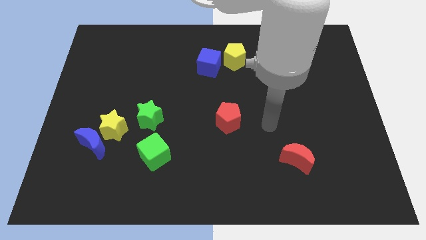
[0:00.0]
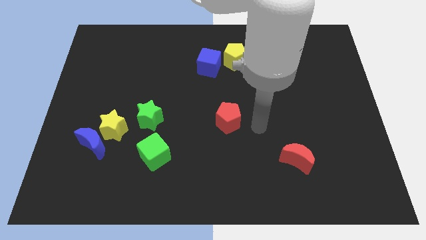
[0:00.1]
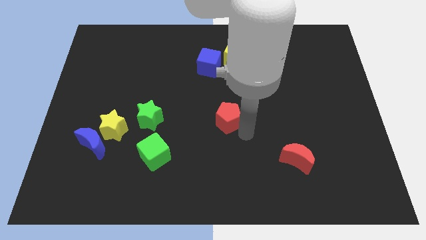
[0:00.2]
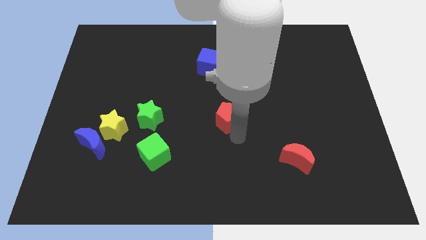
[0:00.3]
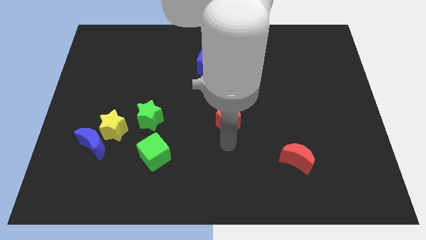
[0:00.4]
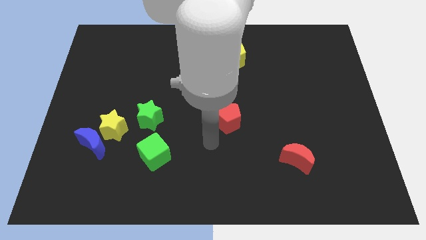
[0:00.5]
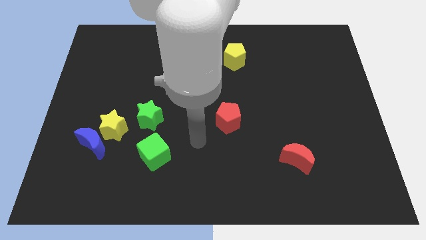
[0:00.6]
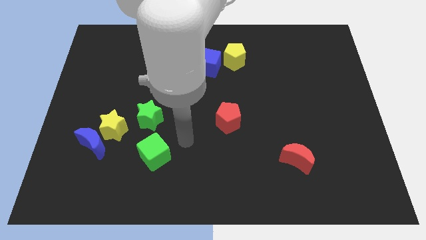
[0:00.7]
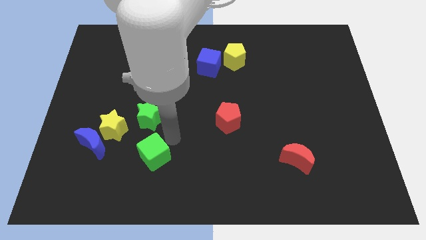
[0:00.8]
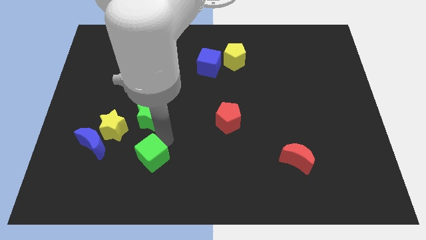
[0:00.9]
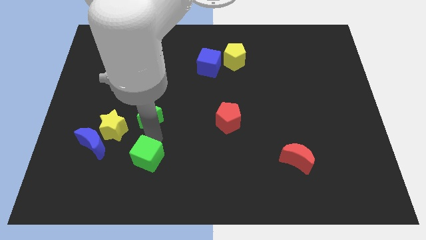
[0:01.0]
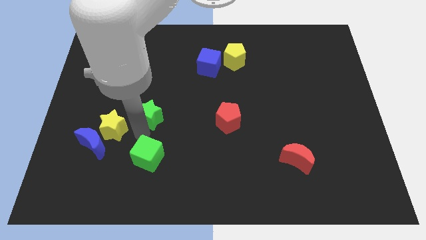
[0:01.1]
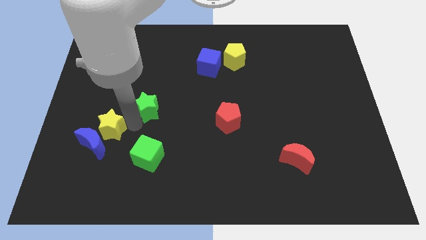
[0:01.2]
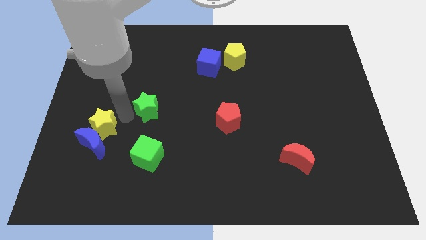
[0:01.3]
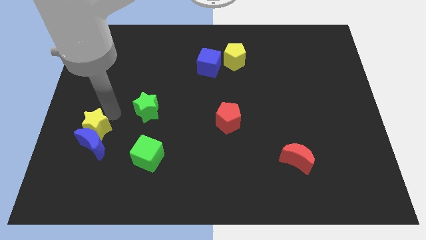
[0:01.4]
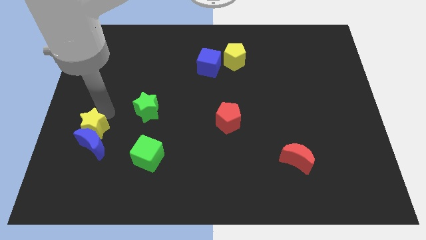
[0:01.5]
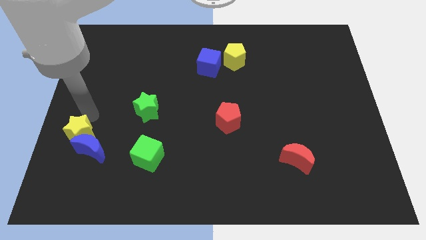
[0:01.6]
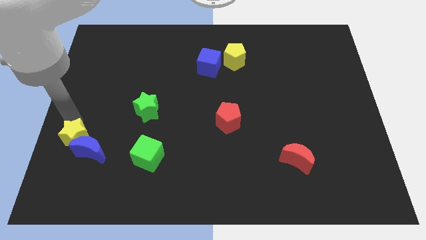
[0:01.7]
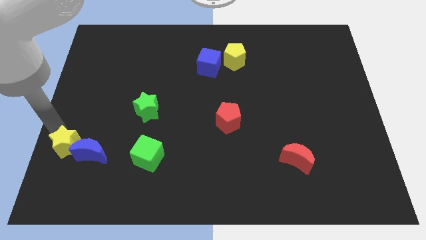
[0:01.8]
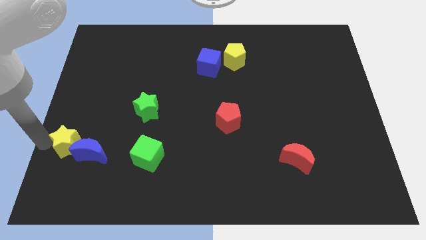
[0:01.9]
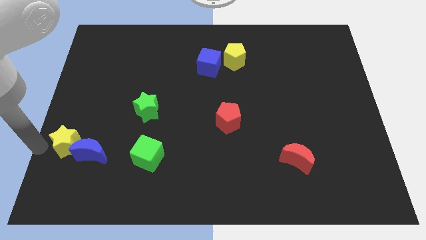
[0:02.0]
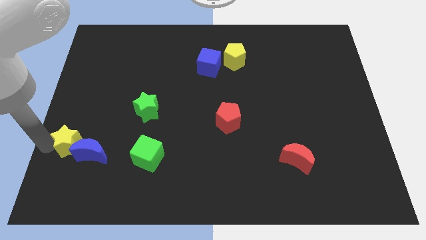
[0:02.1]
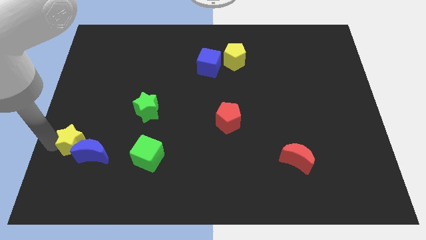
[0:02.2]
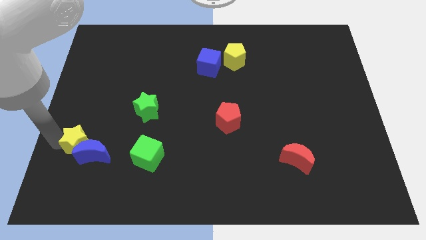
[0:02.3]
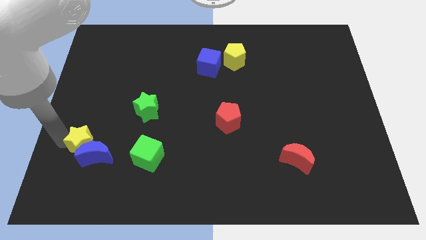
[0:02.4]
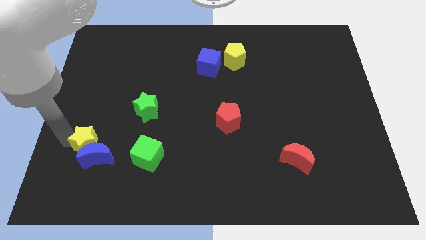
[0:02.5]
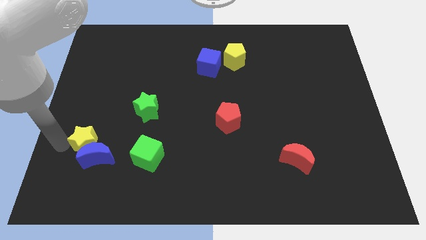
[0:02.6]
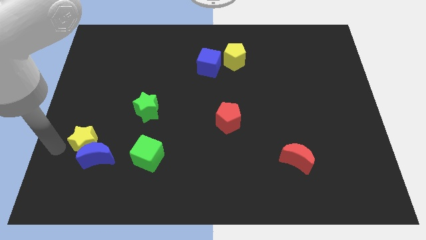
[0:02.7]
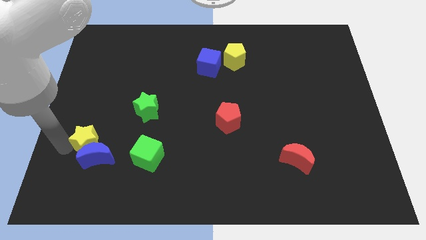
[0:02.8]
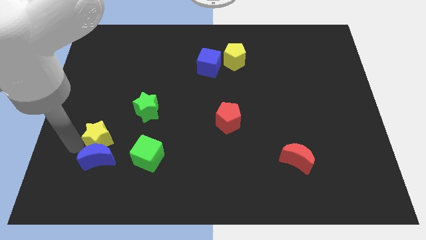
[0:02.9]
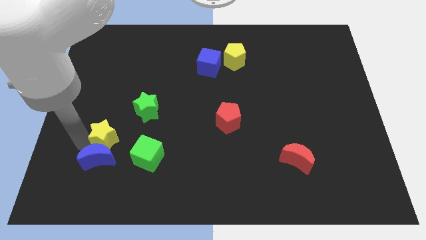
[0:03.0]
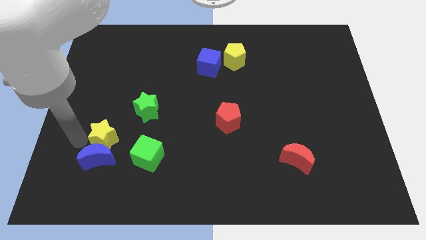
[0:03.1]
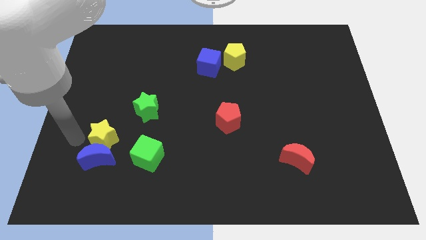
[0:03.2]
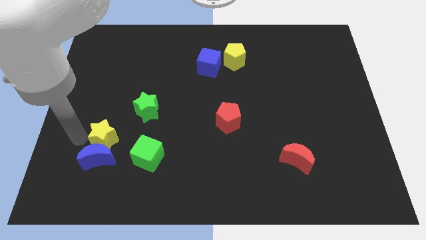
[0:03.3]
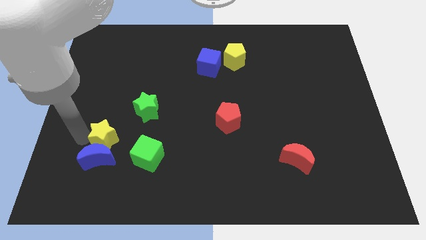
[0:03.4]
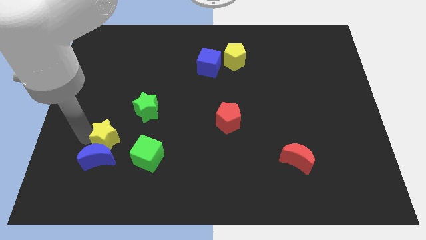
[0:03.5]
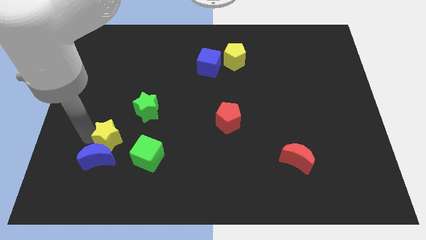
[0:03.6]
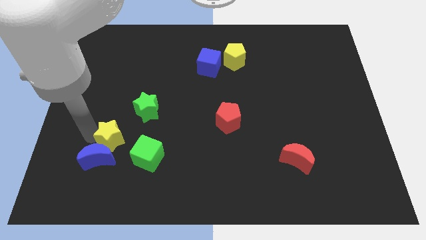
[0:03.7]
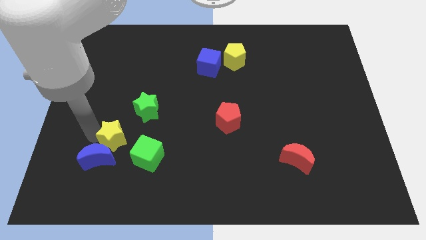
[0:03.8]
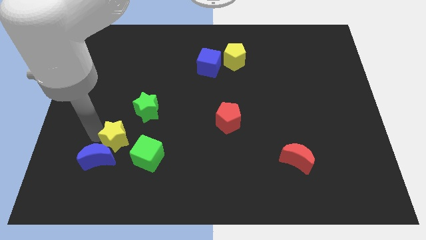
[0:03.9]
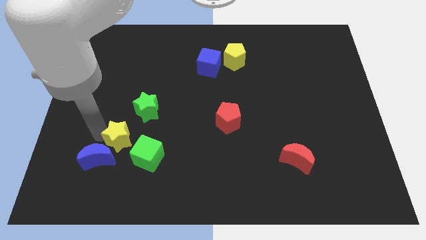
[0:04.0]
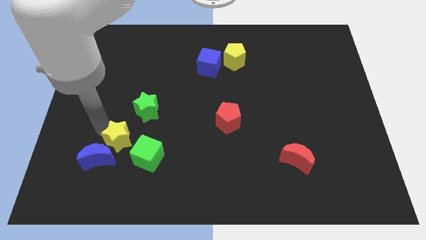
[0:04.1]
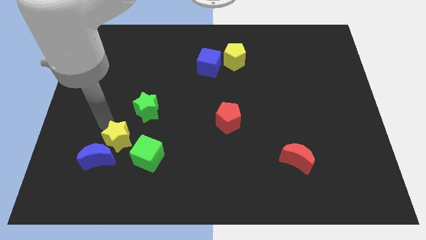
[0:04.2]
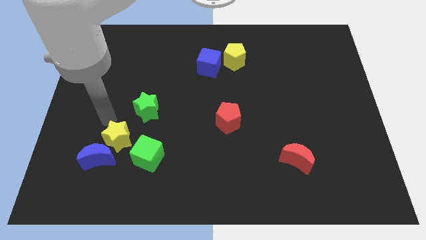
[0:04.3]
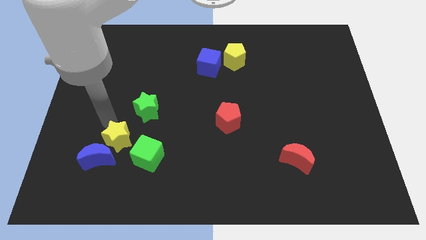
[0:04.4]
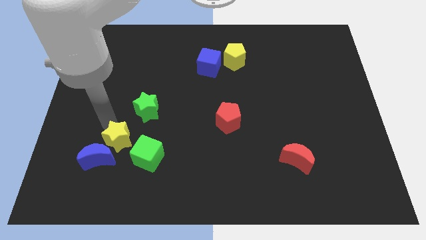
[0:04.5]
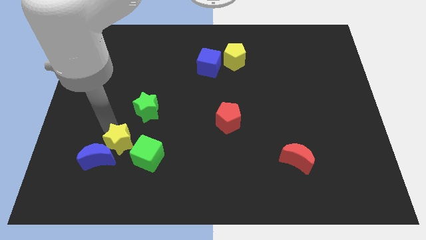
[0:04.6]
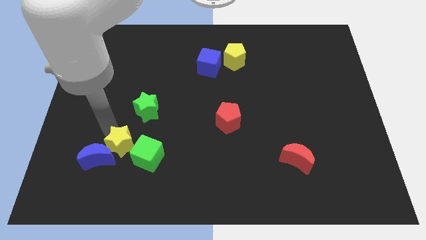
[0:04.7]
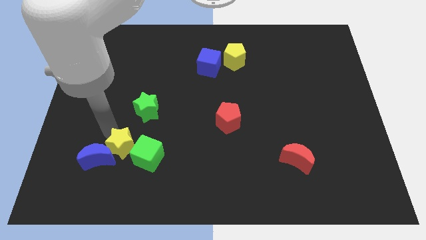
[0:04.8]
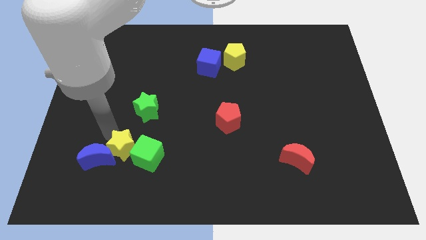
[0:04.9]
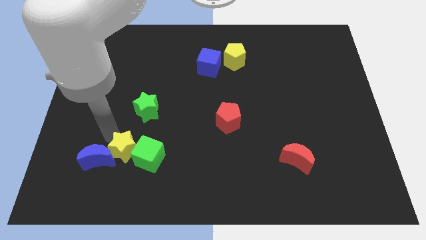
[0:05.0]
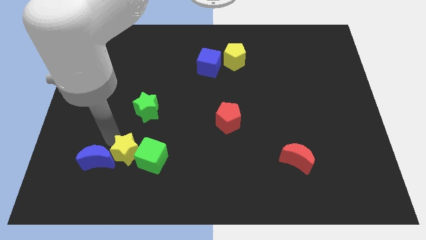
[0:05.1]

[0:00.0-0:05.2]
slide the yellow star a little bit down and then right

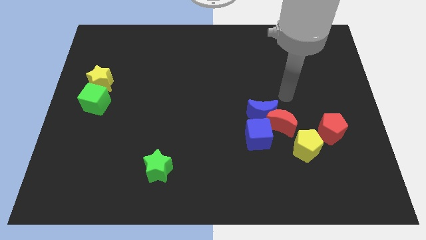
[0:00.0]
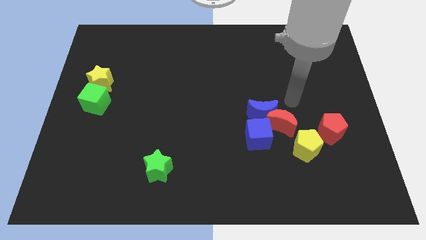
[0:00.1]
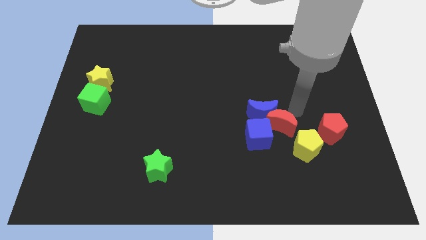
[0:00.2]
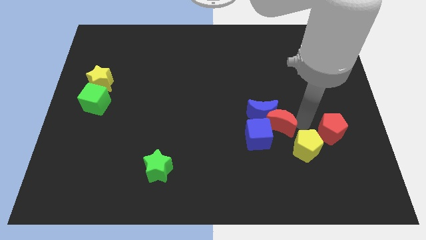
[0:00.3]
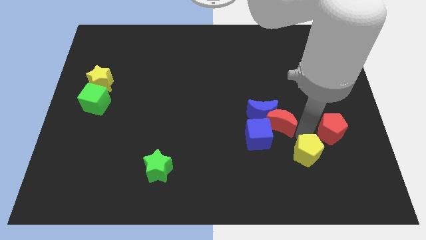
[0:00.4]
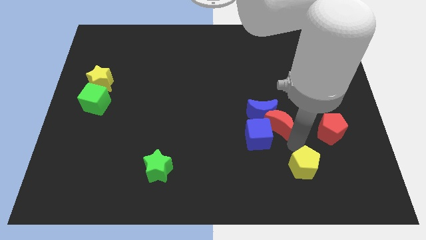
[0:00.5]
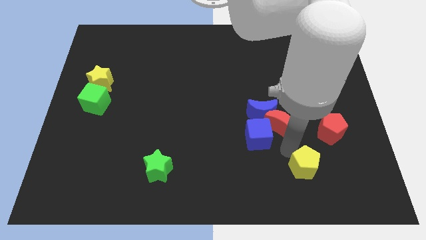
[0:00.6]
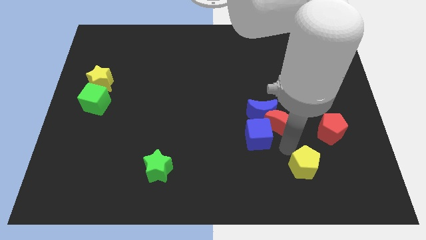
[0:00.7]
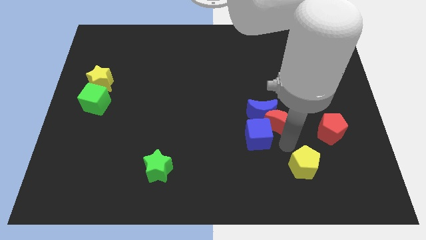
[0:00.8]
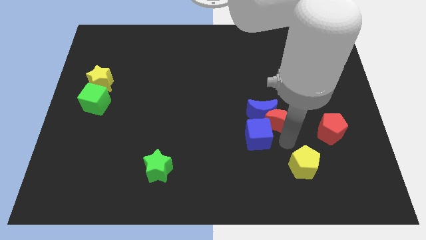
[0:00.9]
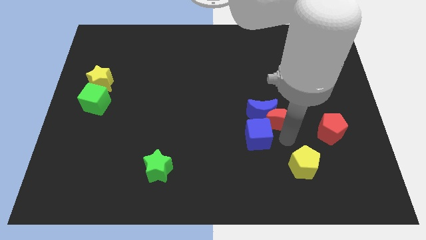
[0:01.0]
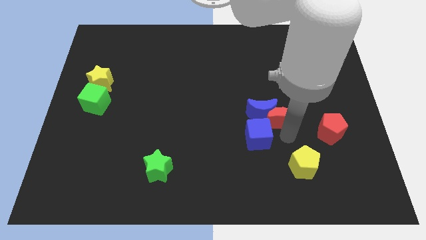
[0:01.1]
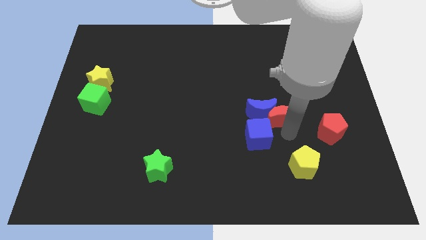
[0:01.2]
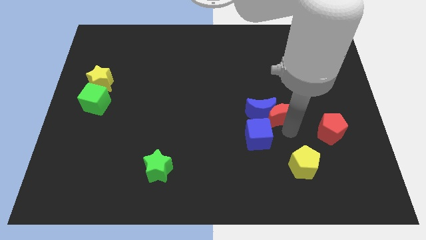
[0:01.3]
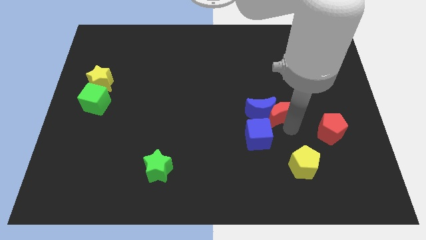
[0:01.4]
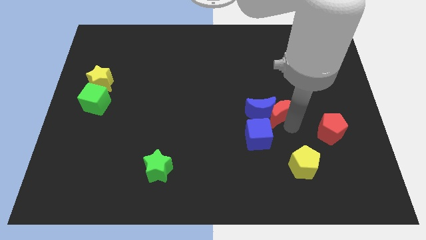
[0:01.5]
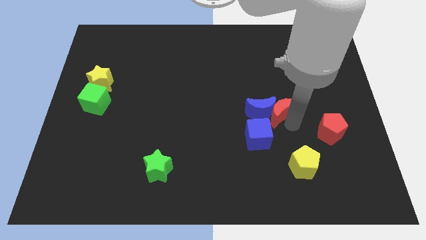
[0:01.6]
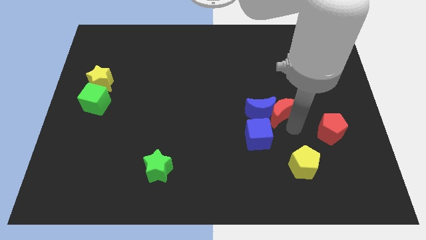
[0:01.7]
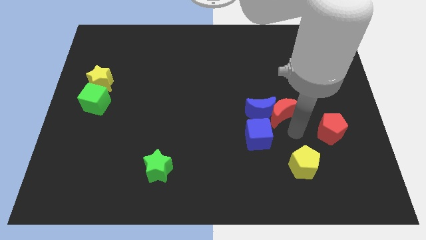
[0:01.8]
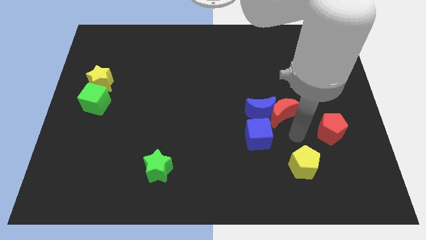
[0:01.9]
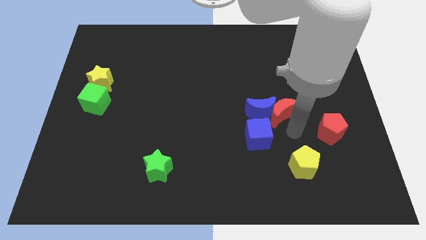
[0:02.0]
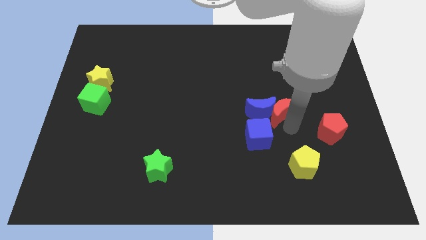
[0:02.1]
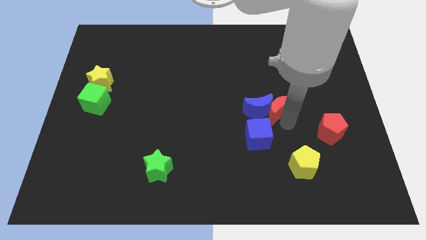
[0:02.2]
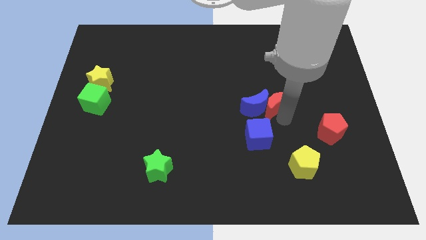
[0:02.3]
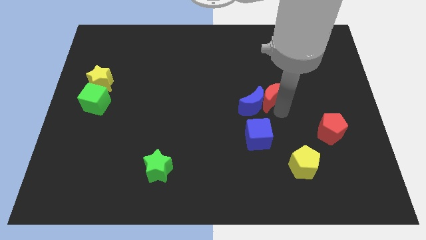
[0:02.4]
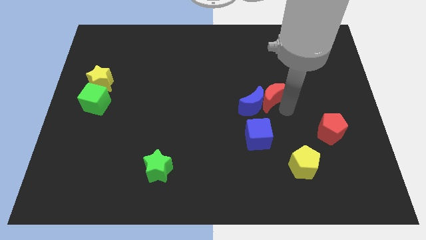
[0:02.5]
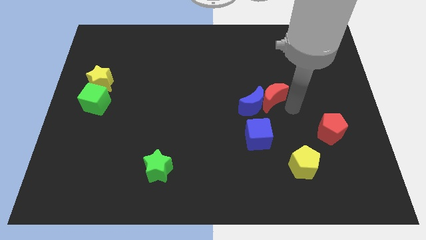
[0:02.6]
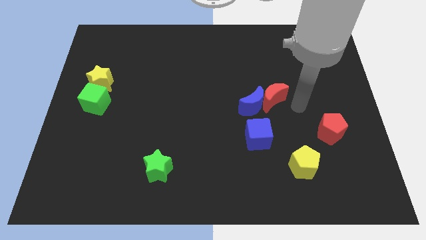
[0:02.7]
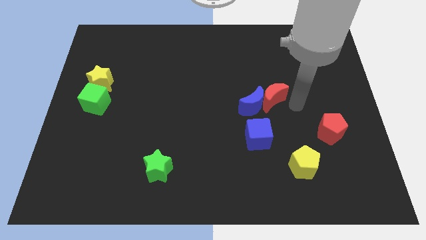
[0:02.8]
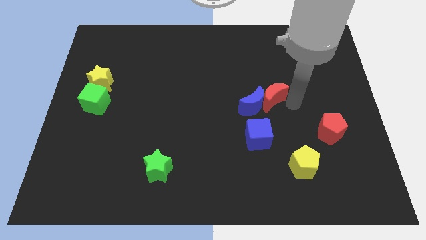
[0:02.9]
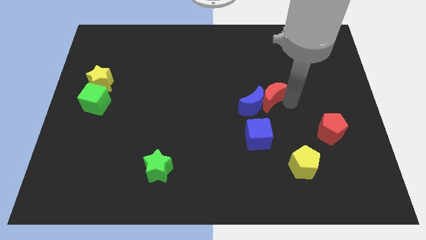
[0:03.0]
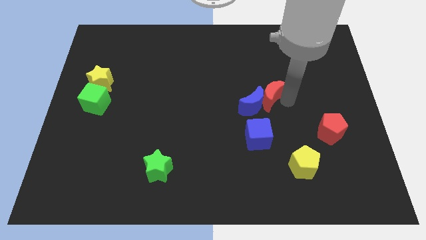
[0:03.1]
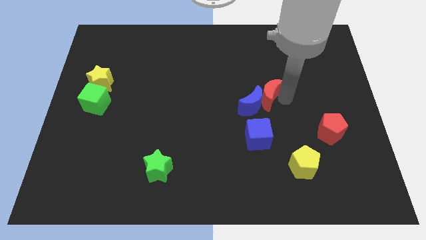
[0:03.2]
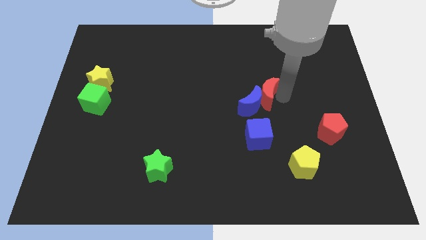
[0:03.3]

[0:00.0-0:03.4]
move the red moon a bit upwards and then left
